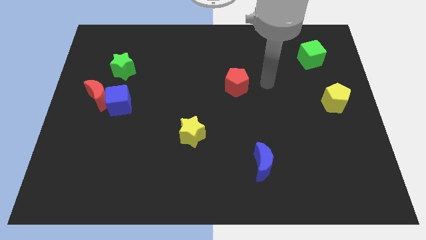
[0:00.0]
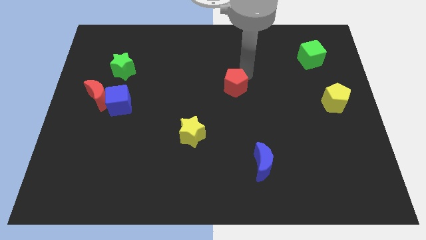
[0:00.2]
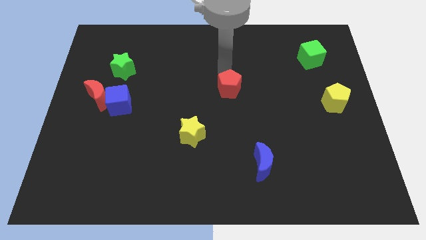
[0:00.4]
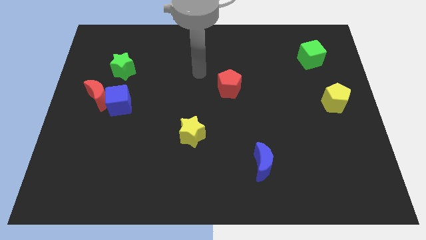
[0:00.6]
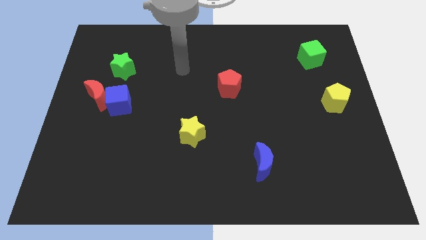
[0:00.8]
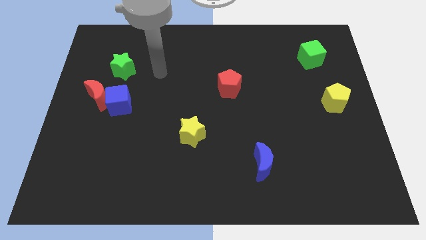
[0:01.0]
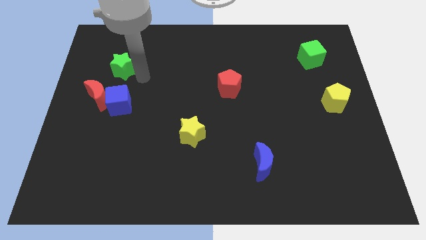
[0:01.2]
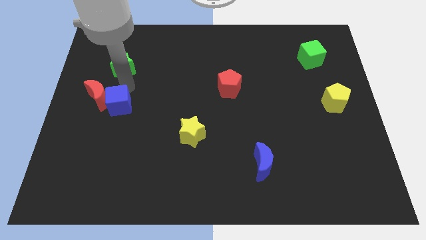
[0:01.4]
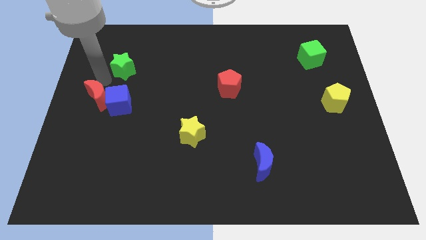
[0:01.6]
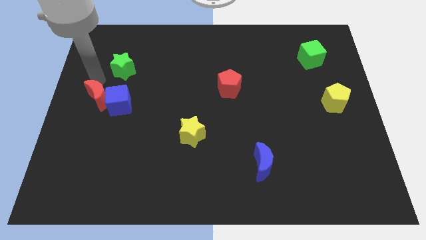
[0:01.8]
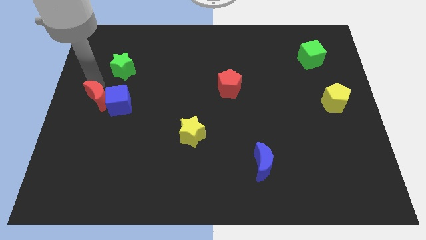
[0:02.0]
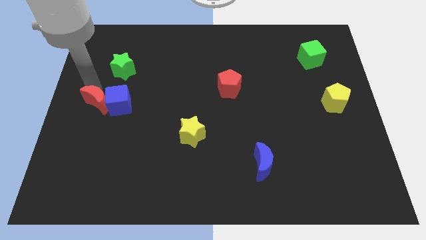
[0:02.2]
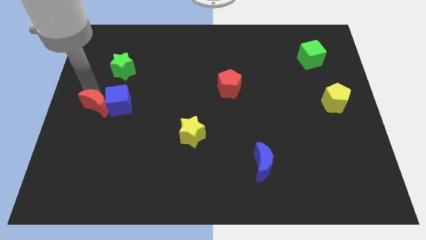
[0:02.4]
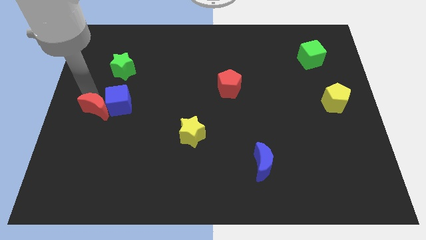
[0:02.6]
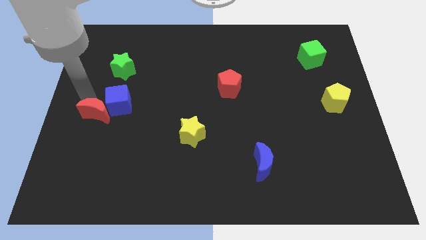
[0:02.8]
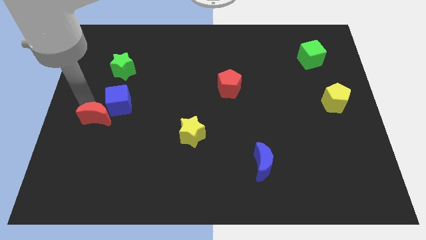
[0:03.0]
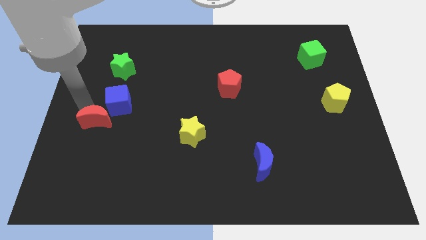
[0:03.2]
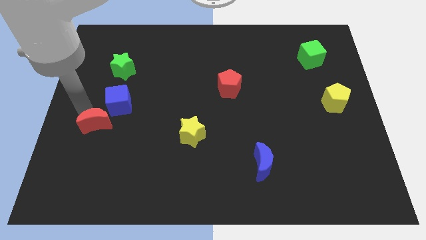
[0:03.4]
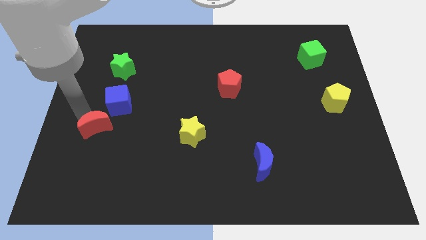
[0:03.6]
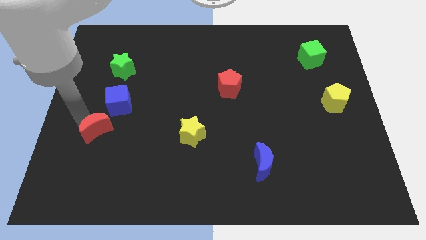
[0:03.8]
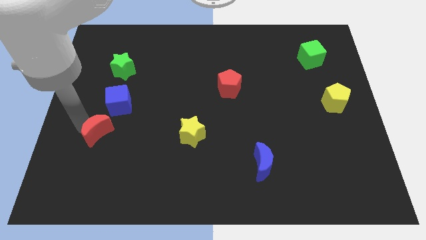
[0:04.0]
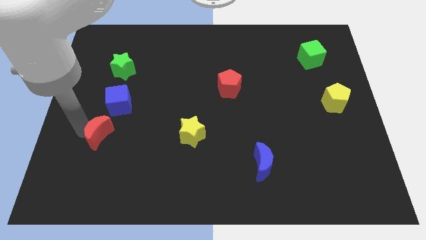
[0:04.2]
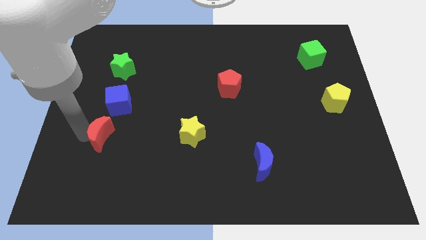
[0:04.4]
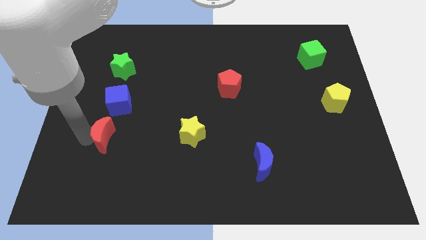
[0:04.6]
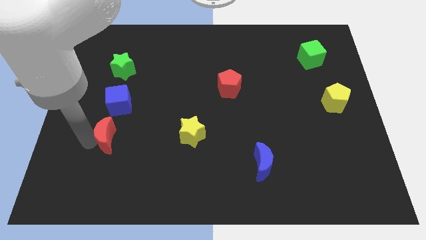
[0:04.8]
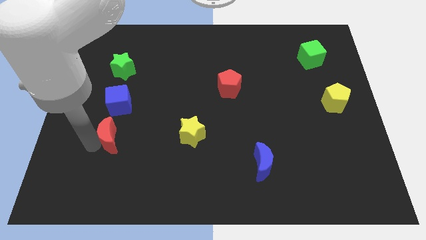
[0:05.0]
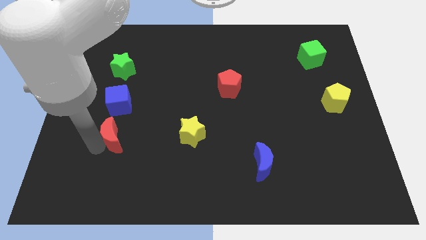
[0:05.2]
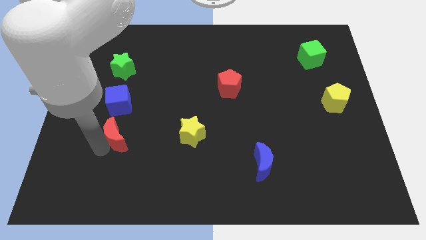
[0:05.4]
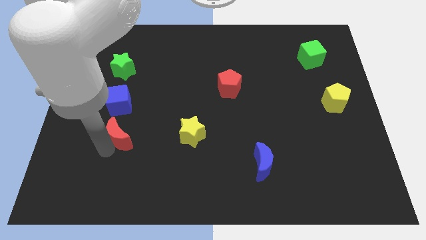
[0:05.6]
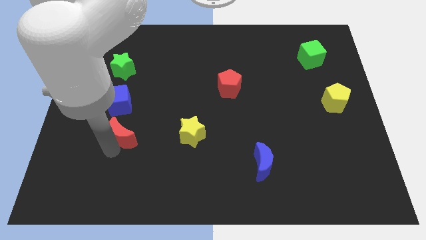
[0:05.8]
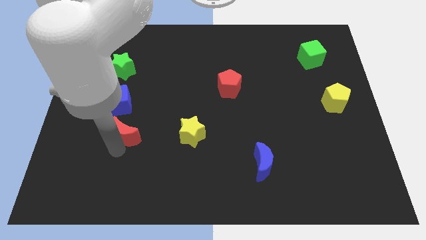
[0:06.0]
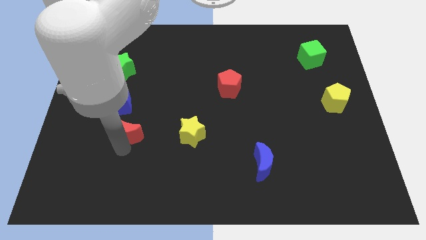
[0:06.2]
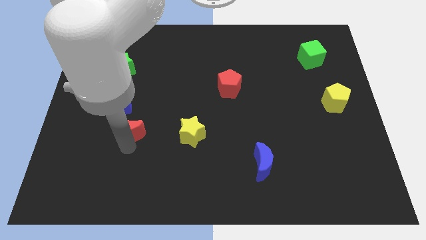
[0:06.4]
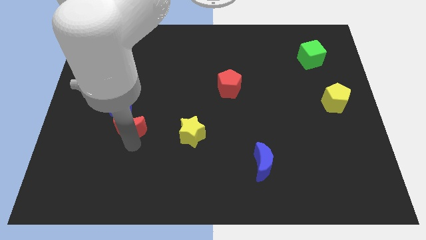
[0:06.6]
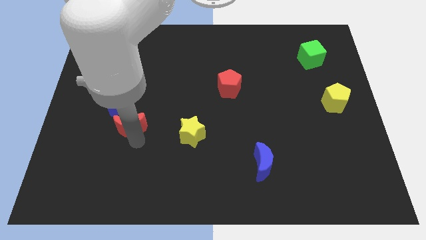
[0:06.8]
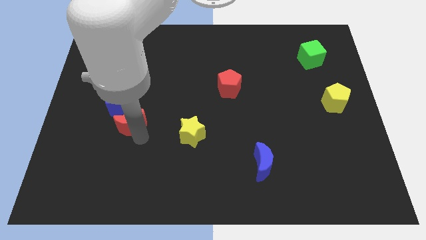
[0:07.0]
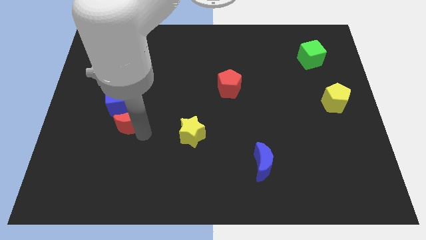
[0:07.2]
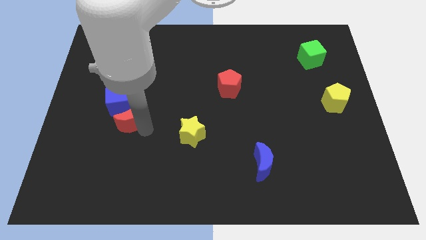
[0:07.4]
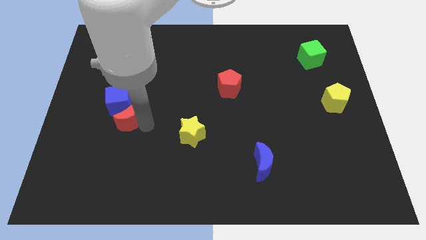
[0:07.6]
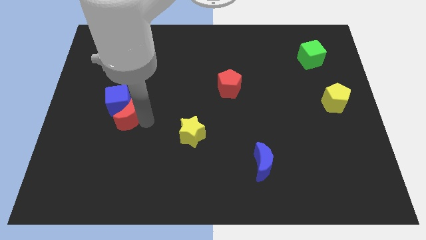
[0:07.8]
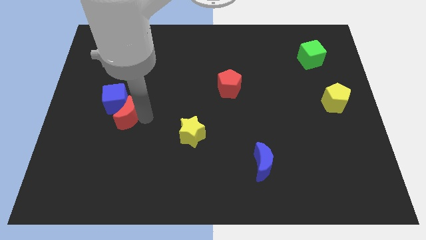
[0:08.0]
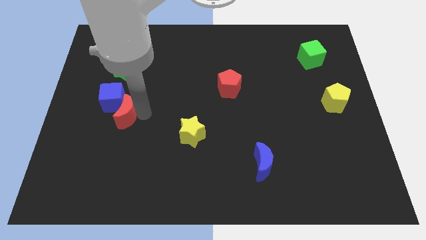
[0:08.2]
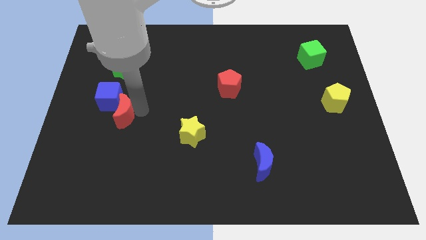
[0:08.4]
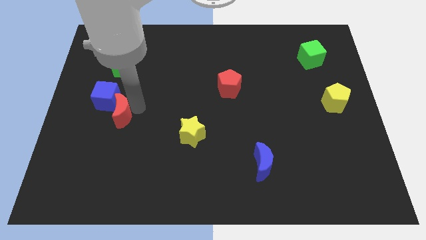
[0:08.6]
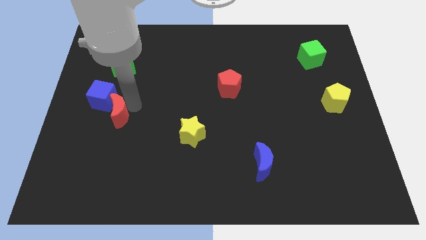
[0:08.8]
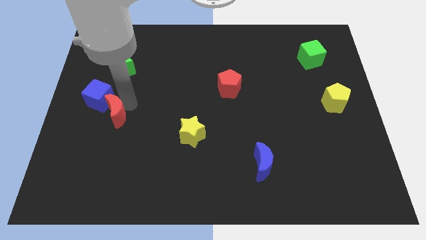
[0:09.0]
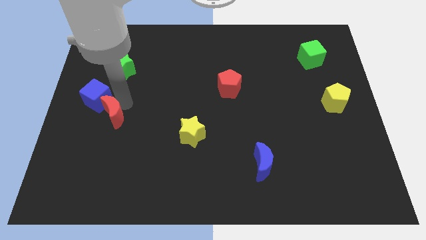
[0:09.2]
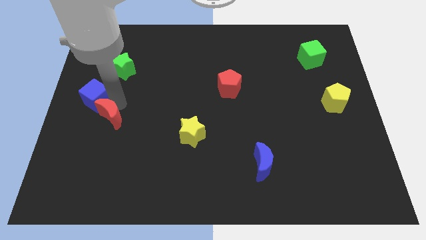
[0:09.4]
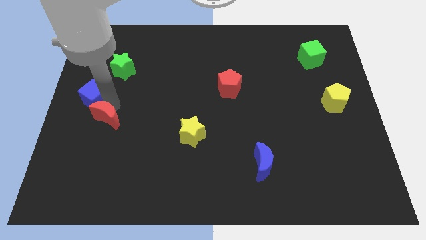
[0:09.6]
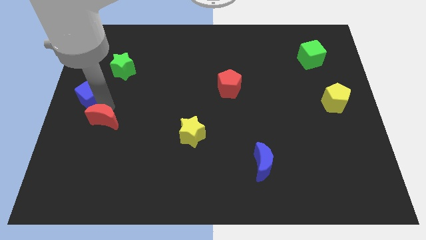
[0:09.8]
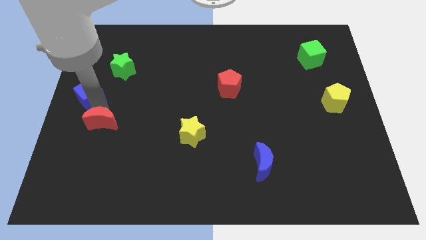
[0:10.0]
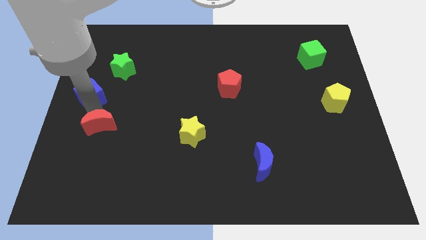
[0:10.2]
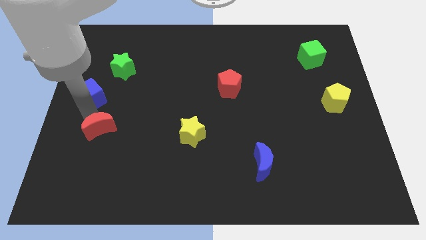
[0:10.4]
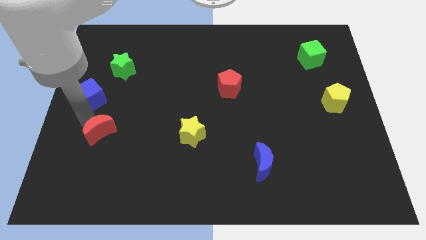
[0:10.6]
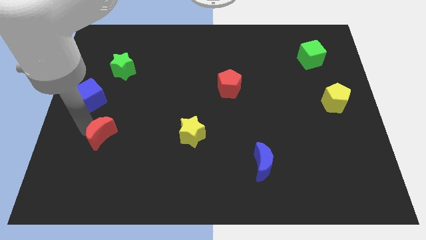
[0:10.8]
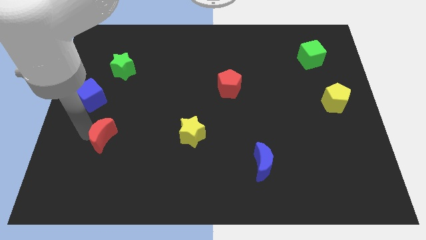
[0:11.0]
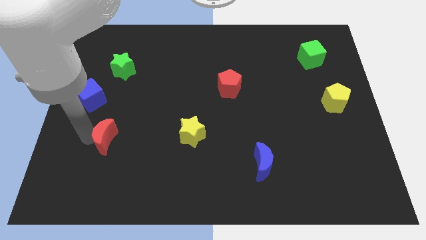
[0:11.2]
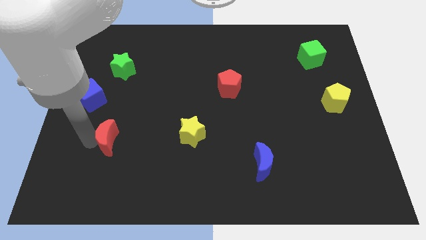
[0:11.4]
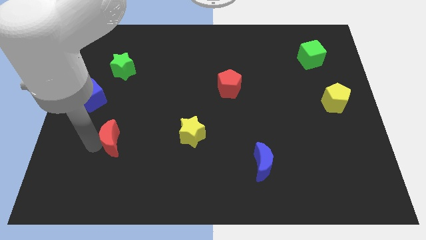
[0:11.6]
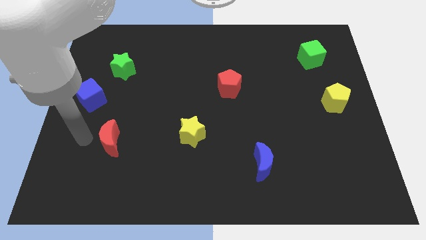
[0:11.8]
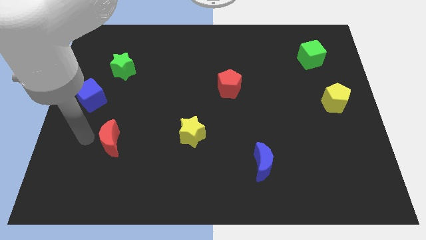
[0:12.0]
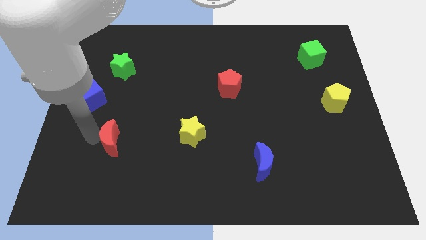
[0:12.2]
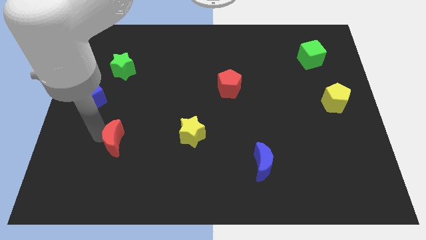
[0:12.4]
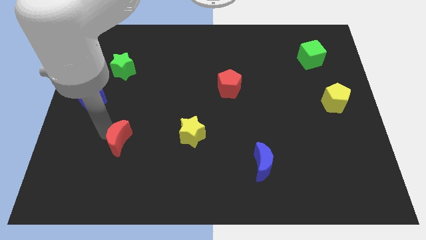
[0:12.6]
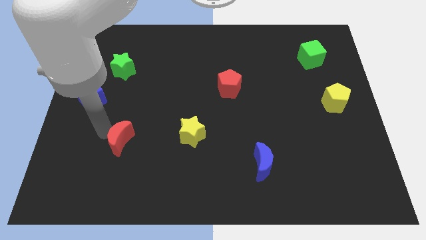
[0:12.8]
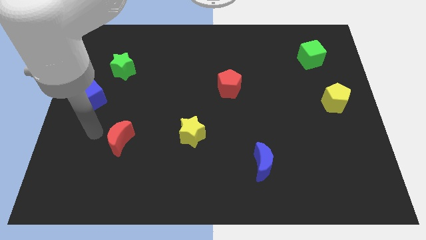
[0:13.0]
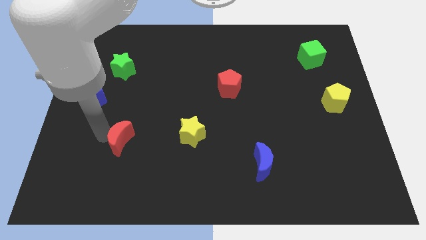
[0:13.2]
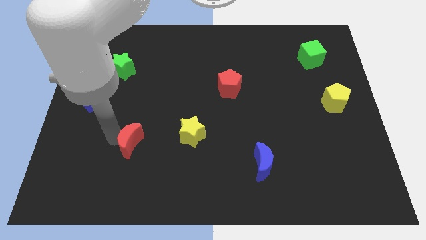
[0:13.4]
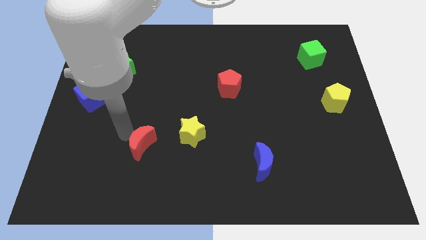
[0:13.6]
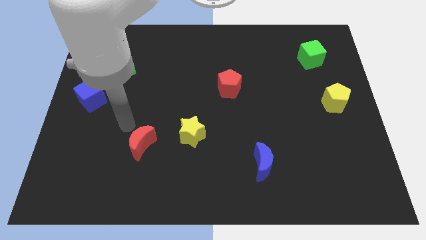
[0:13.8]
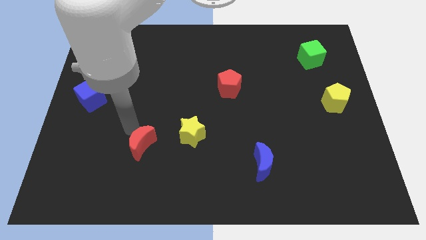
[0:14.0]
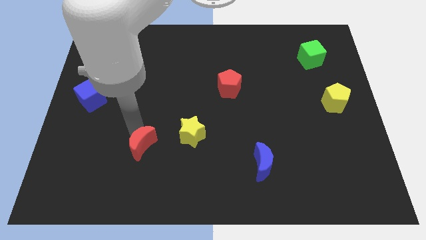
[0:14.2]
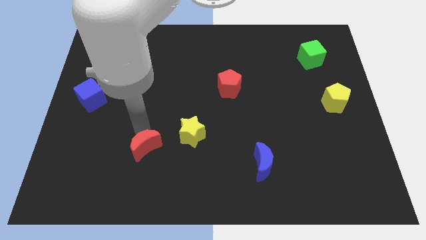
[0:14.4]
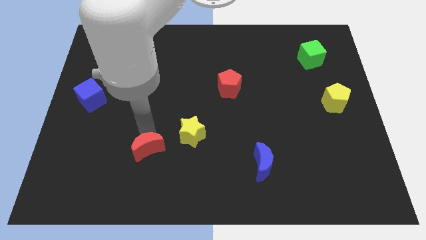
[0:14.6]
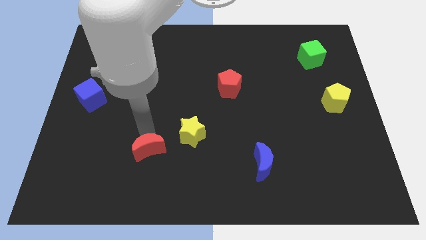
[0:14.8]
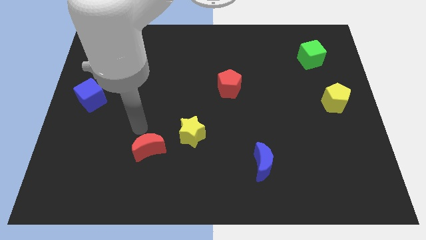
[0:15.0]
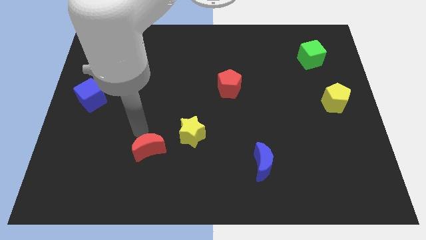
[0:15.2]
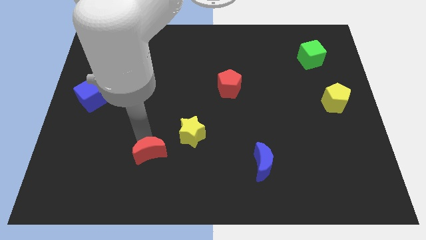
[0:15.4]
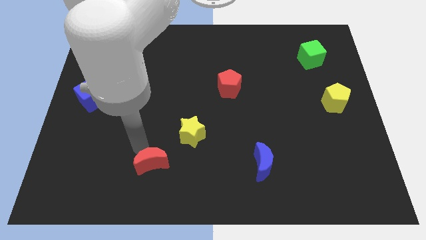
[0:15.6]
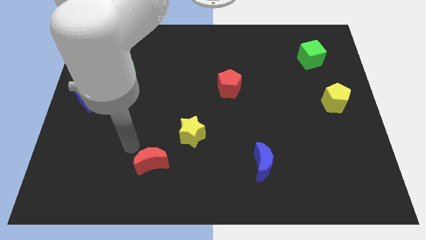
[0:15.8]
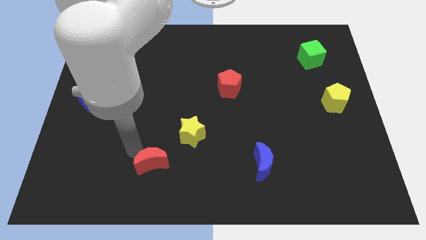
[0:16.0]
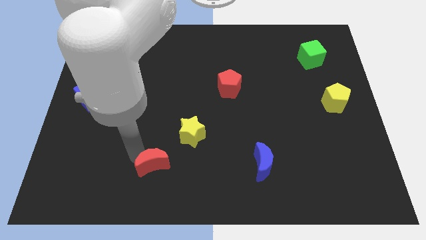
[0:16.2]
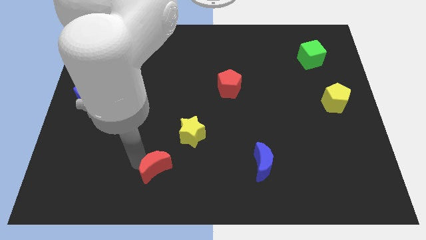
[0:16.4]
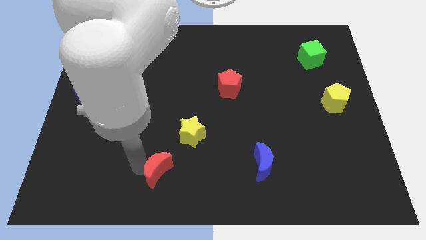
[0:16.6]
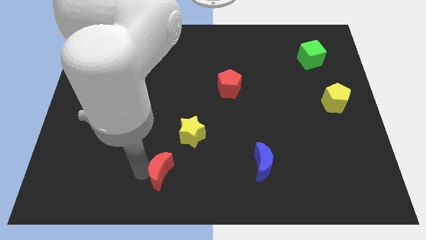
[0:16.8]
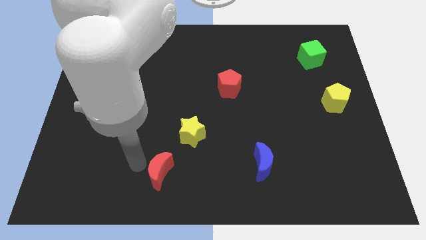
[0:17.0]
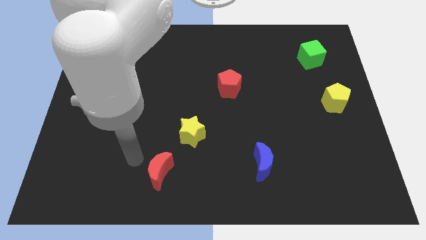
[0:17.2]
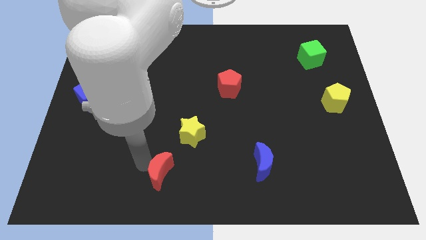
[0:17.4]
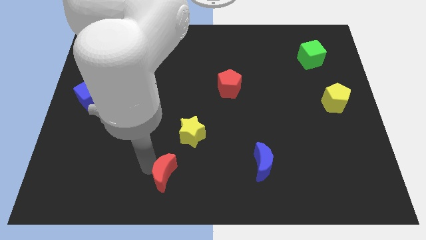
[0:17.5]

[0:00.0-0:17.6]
push the red moon to the bottom
